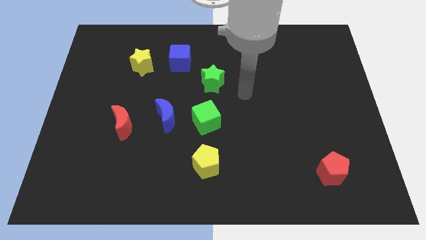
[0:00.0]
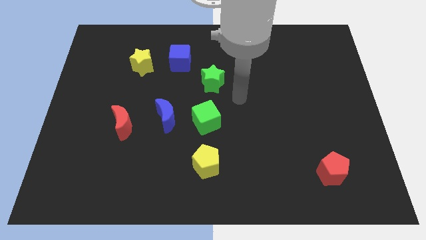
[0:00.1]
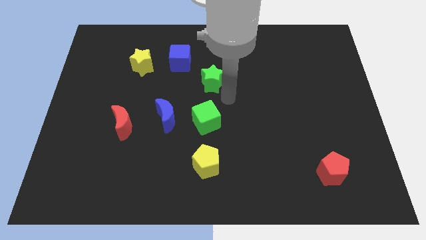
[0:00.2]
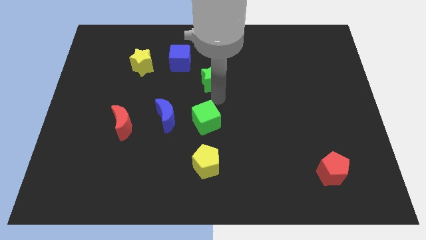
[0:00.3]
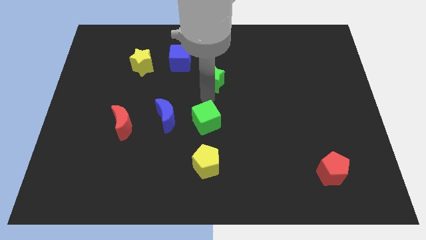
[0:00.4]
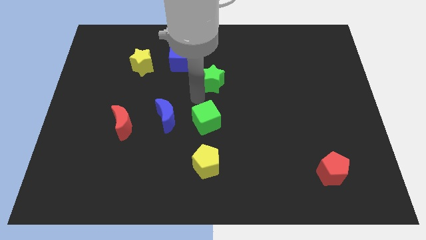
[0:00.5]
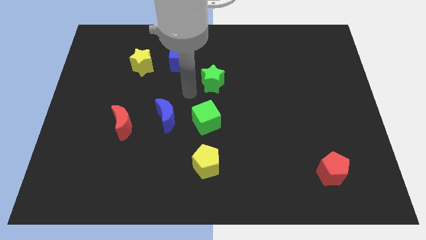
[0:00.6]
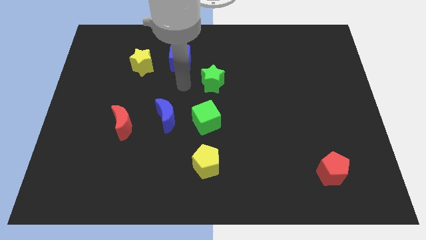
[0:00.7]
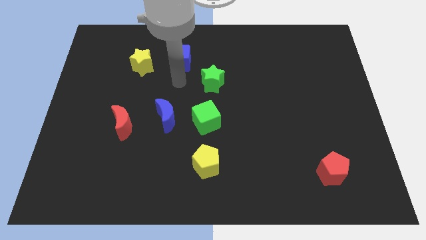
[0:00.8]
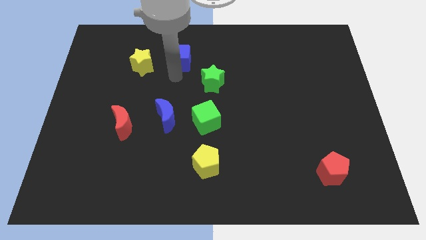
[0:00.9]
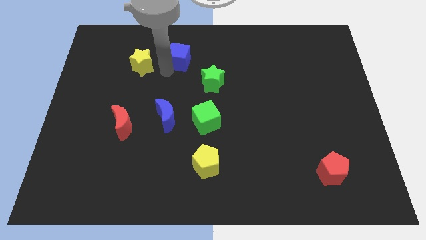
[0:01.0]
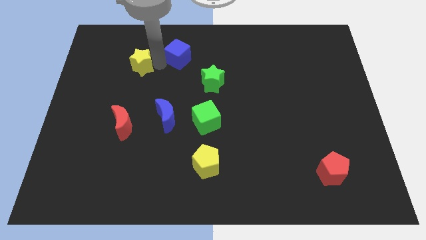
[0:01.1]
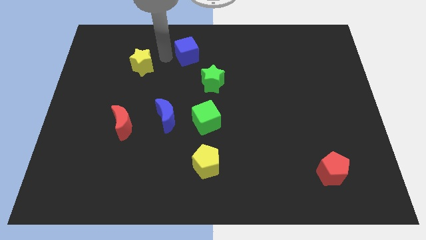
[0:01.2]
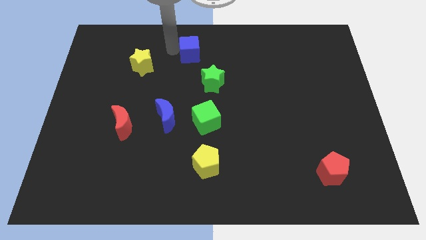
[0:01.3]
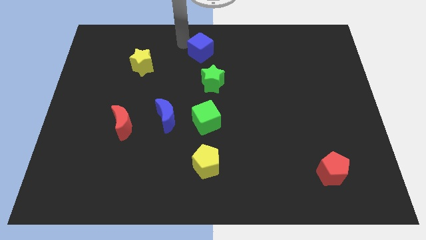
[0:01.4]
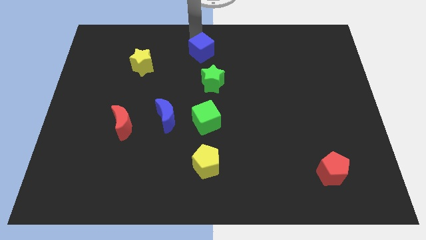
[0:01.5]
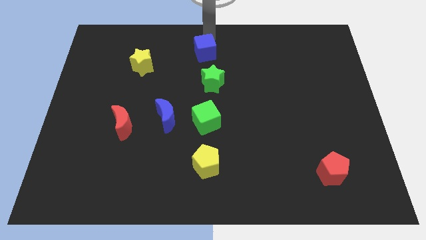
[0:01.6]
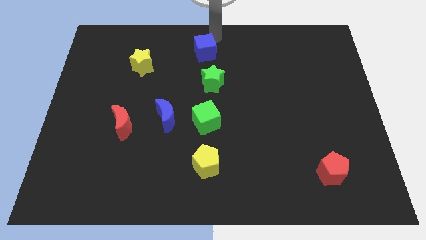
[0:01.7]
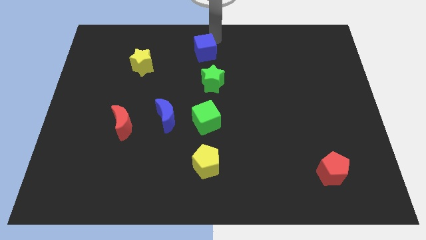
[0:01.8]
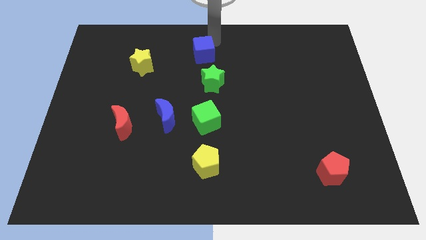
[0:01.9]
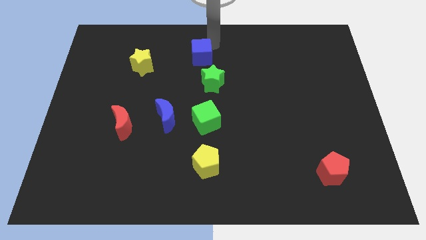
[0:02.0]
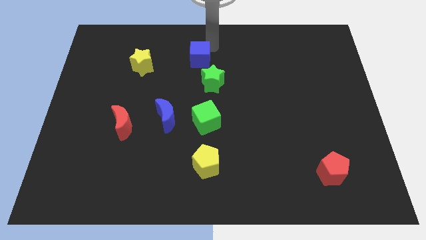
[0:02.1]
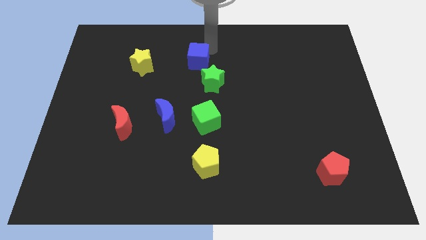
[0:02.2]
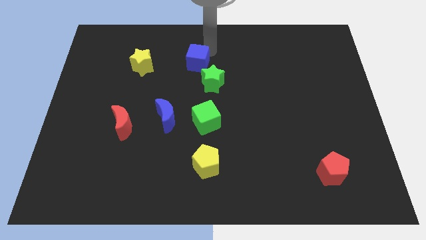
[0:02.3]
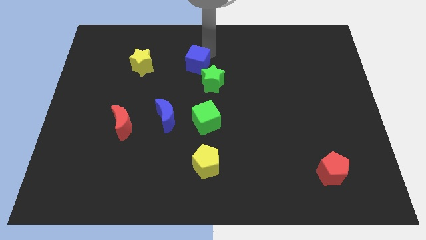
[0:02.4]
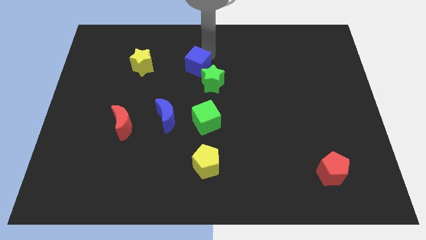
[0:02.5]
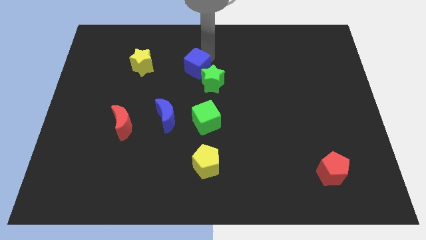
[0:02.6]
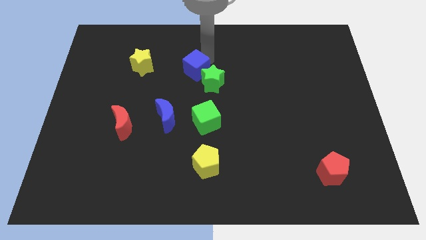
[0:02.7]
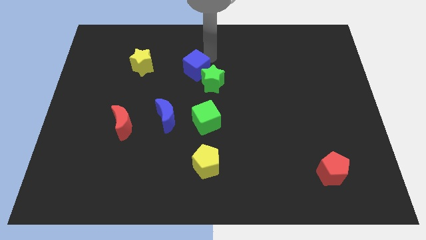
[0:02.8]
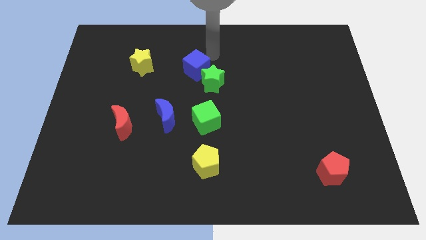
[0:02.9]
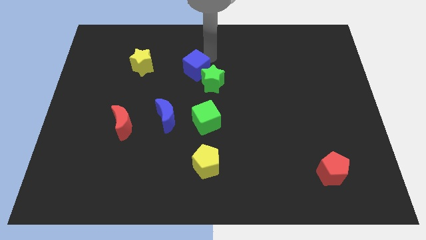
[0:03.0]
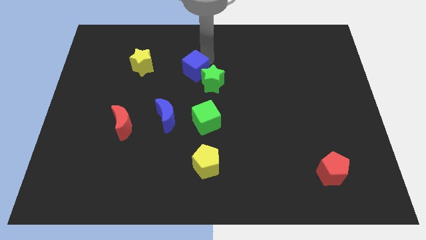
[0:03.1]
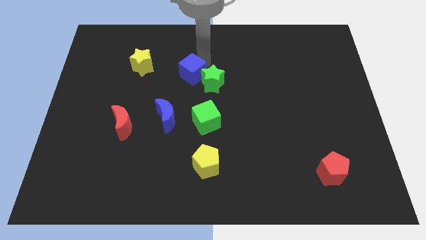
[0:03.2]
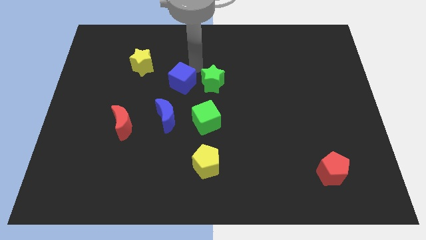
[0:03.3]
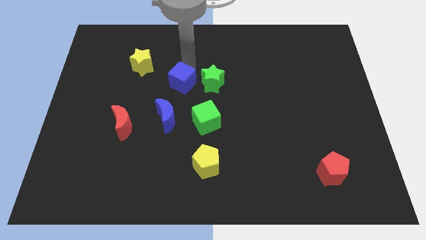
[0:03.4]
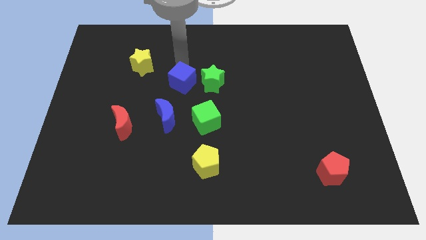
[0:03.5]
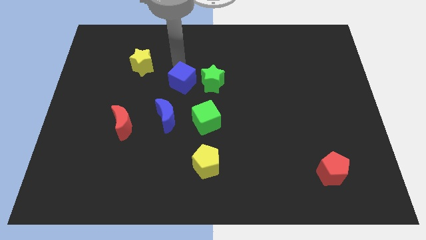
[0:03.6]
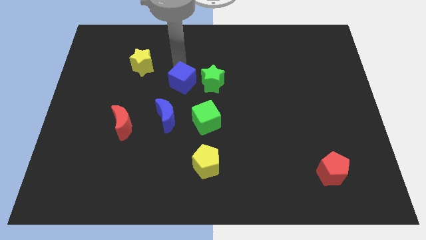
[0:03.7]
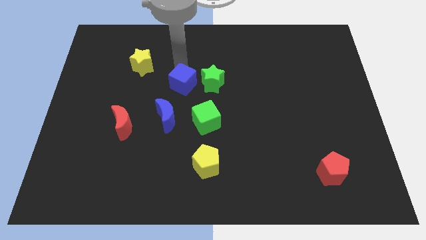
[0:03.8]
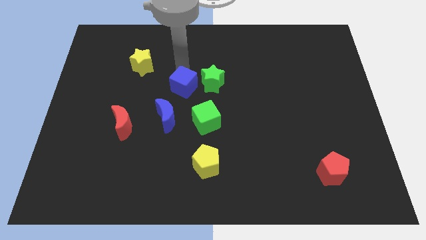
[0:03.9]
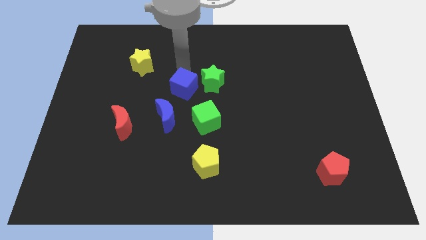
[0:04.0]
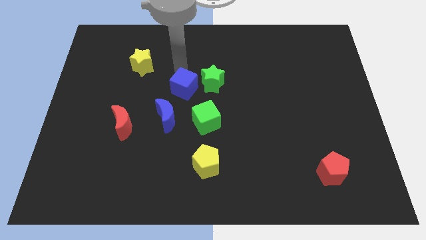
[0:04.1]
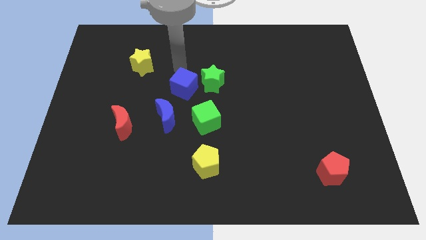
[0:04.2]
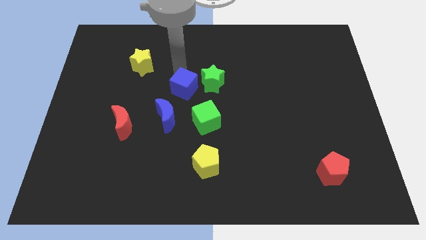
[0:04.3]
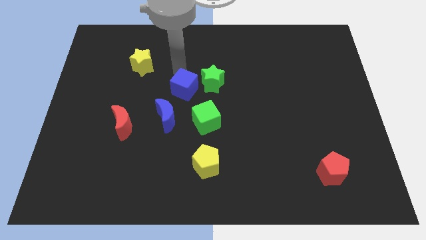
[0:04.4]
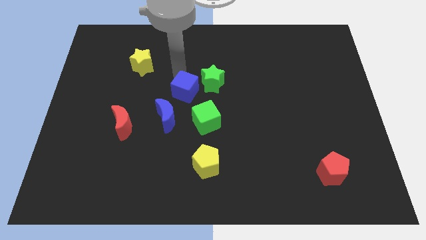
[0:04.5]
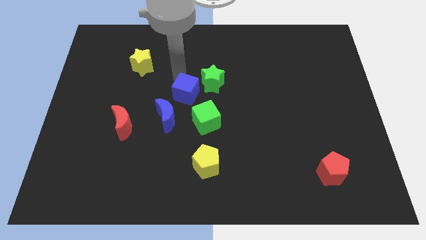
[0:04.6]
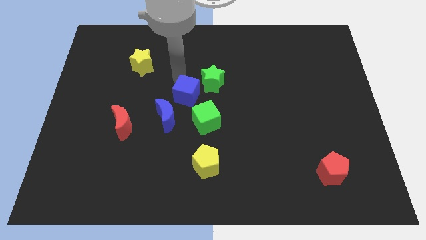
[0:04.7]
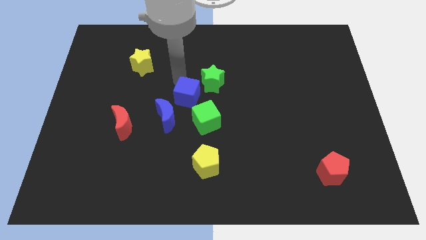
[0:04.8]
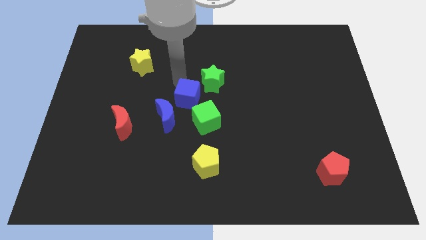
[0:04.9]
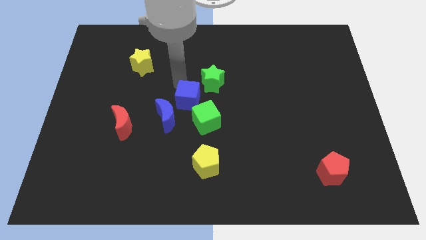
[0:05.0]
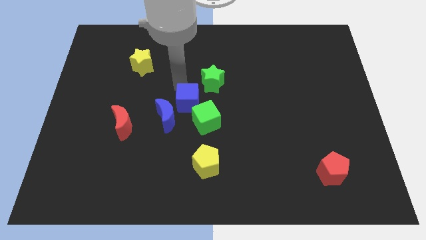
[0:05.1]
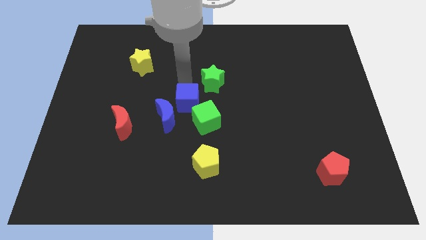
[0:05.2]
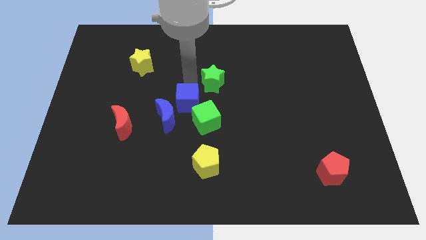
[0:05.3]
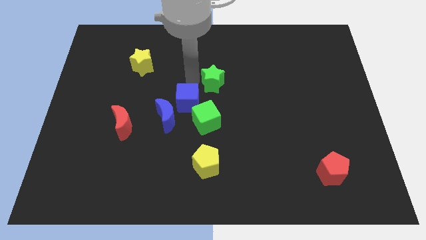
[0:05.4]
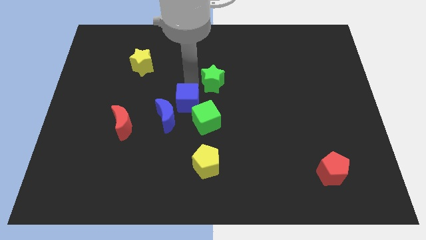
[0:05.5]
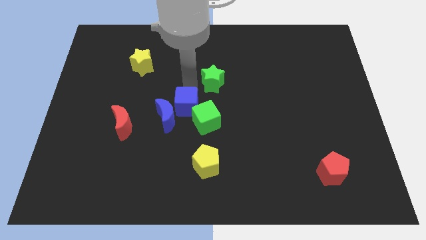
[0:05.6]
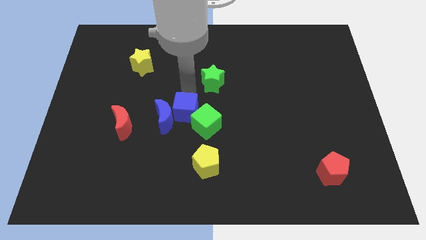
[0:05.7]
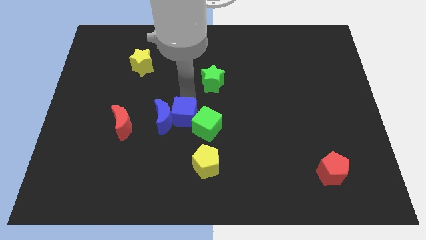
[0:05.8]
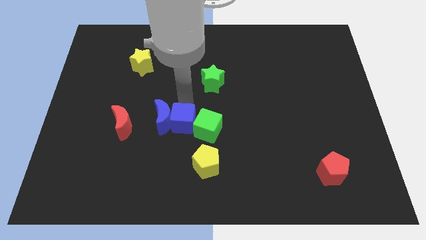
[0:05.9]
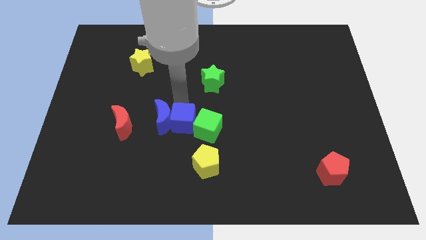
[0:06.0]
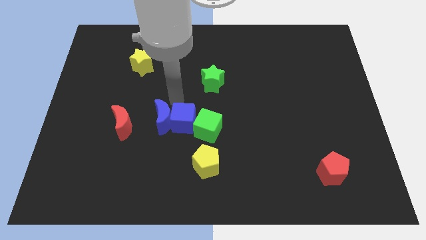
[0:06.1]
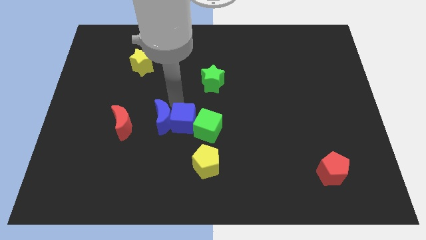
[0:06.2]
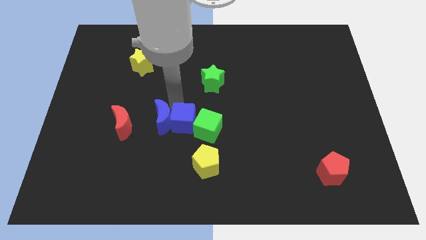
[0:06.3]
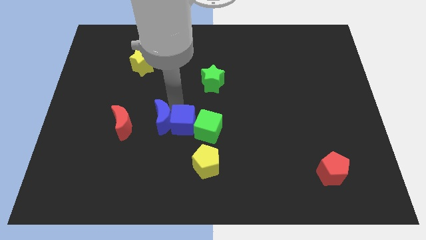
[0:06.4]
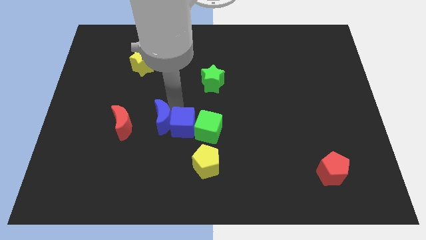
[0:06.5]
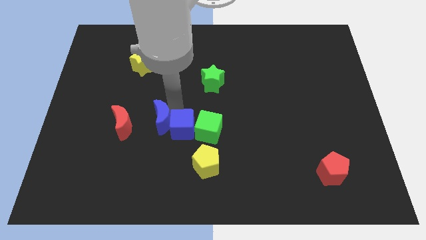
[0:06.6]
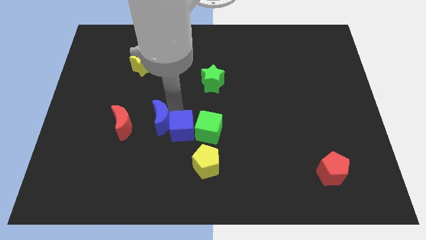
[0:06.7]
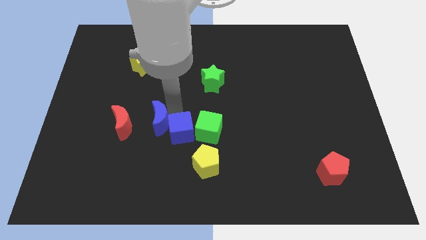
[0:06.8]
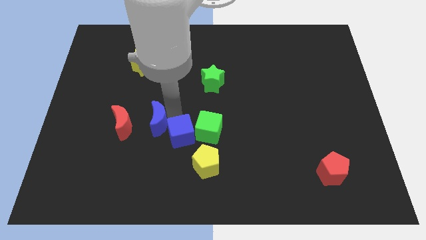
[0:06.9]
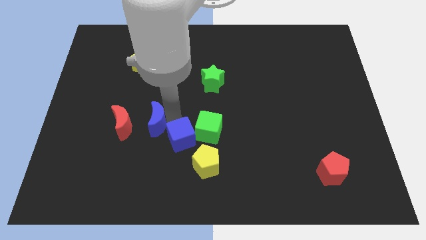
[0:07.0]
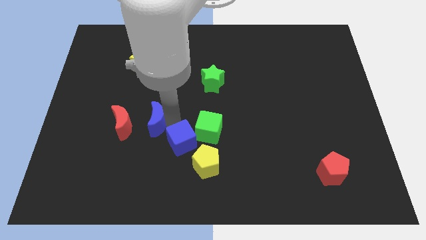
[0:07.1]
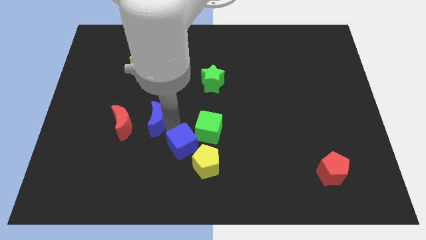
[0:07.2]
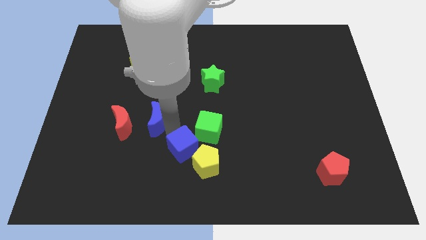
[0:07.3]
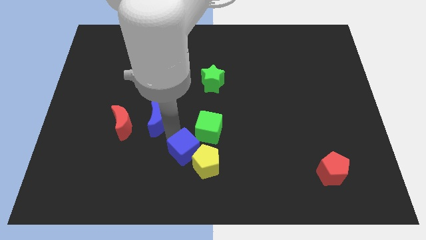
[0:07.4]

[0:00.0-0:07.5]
slide the blue cube close to the yellow pentagon
